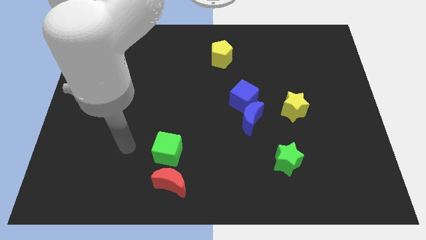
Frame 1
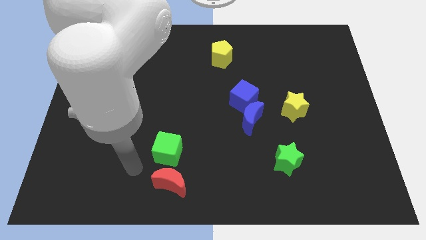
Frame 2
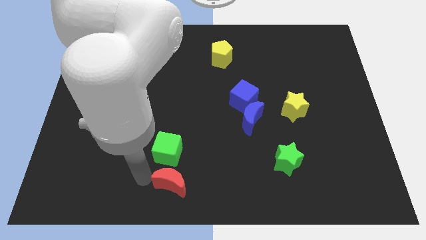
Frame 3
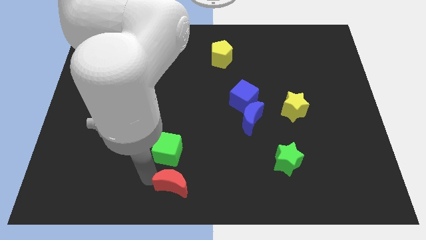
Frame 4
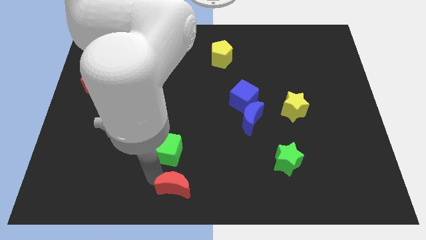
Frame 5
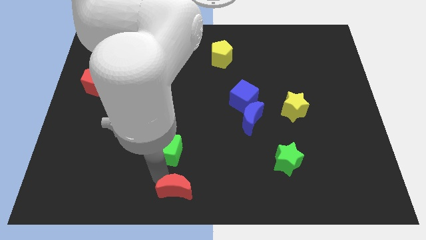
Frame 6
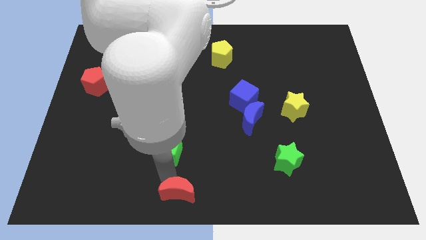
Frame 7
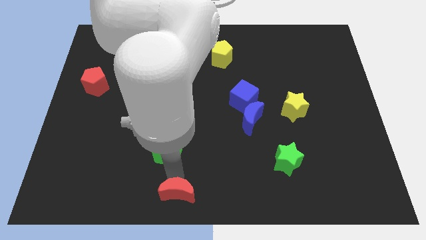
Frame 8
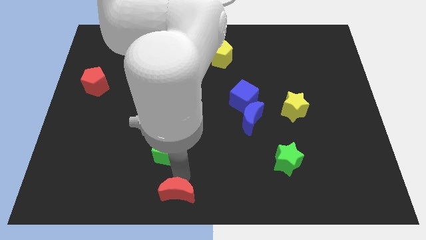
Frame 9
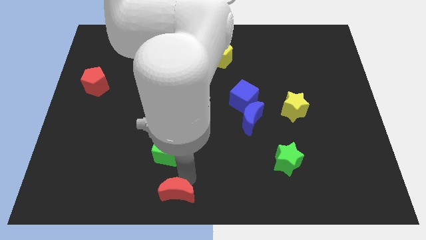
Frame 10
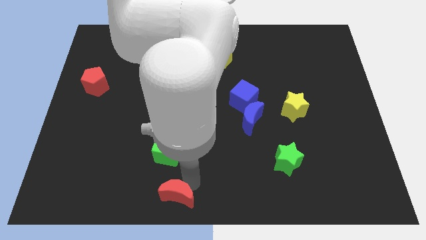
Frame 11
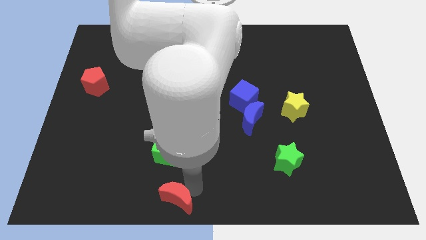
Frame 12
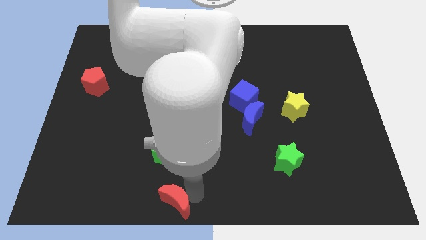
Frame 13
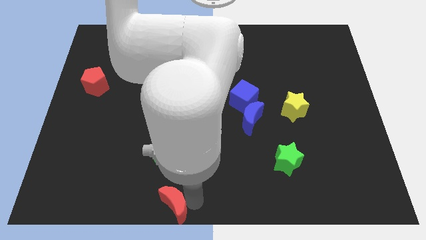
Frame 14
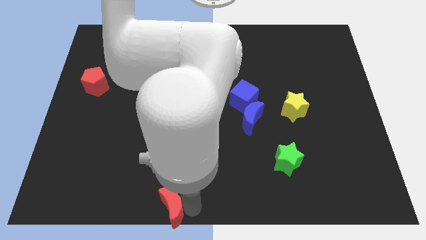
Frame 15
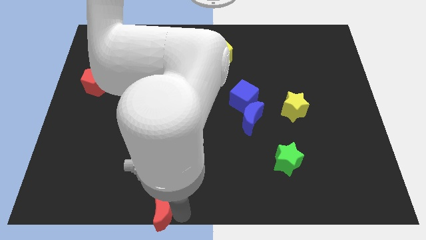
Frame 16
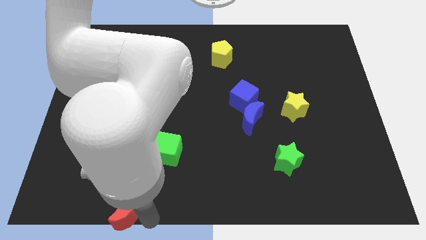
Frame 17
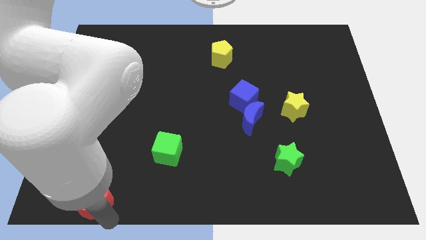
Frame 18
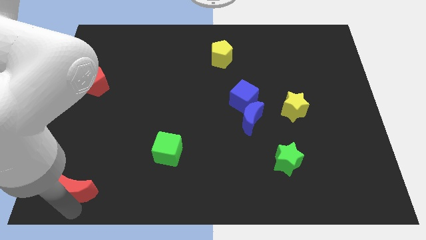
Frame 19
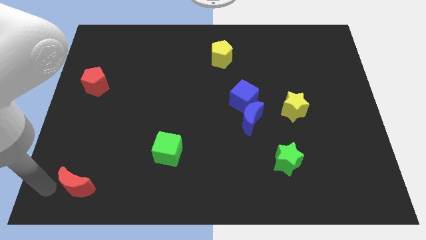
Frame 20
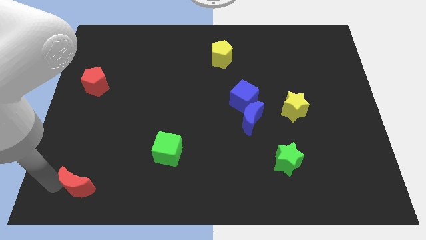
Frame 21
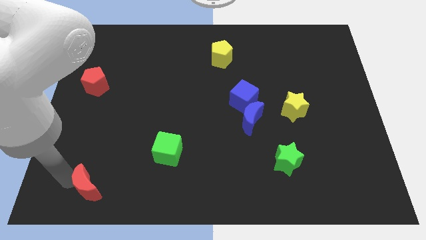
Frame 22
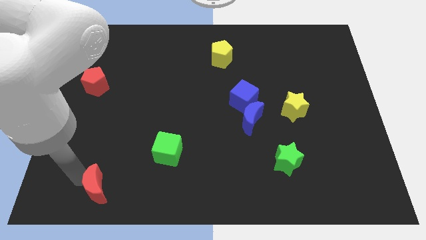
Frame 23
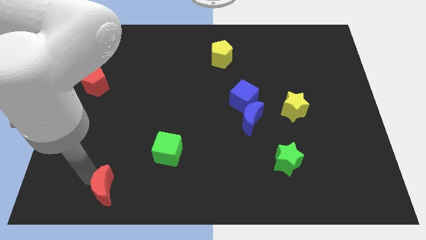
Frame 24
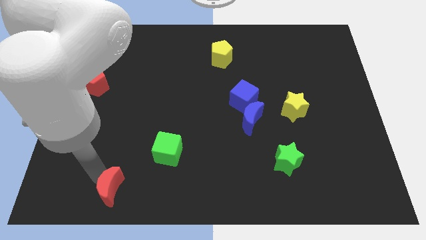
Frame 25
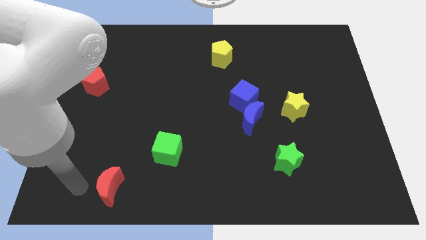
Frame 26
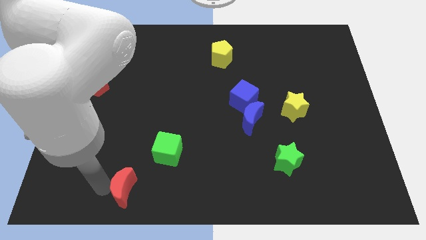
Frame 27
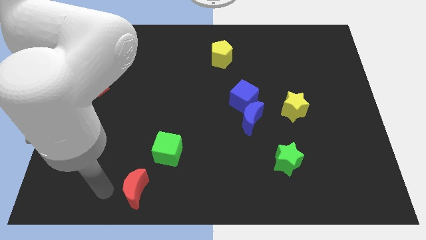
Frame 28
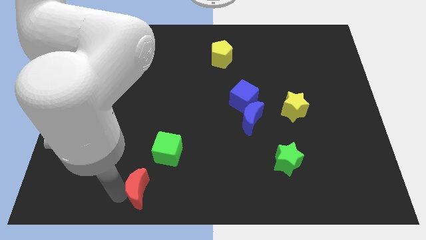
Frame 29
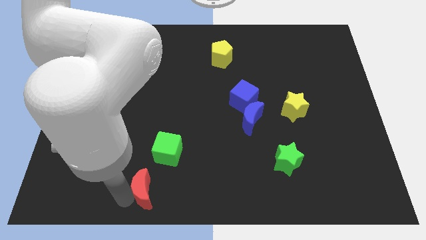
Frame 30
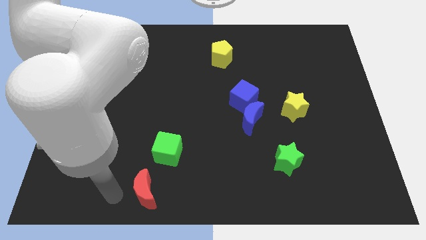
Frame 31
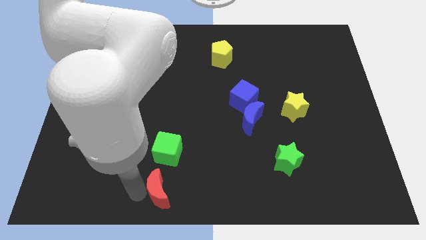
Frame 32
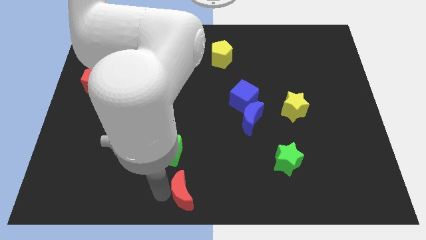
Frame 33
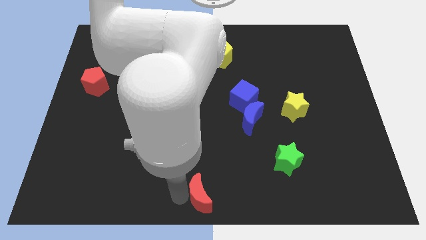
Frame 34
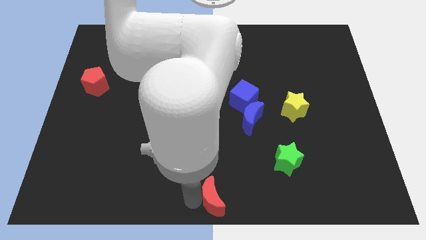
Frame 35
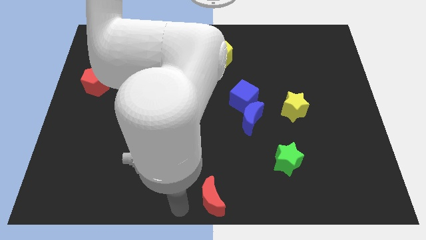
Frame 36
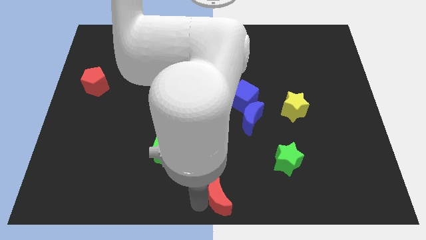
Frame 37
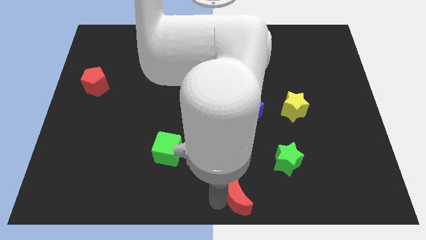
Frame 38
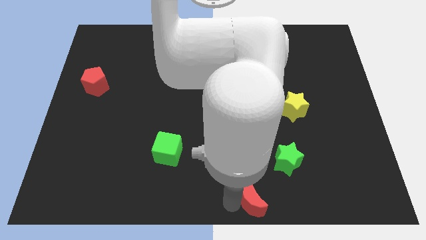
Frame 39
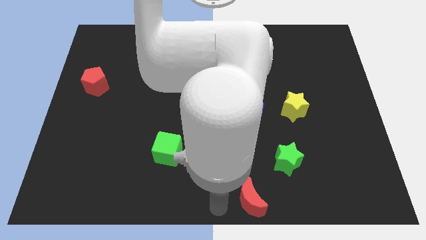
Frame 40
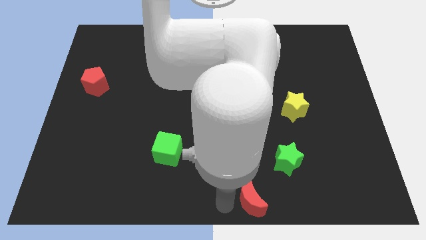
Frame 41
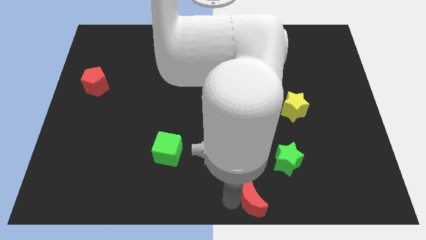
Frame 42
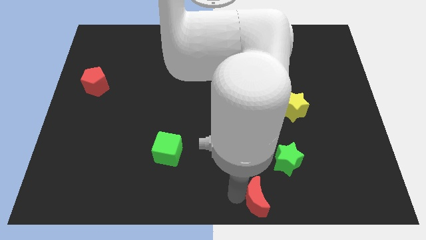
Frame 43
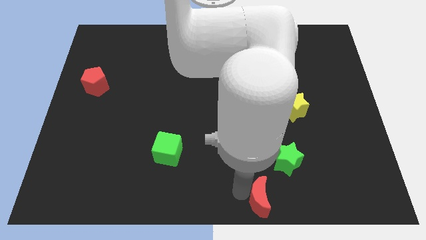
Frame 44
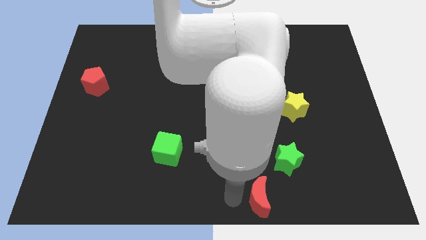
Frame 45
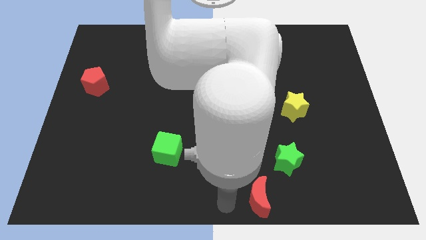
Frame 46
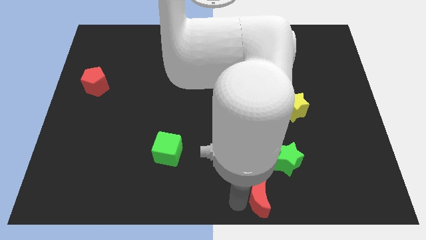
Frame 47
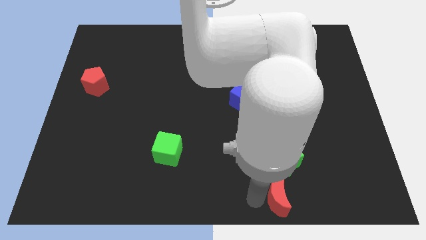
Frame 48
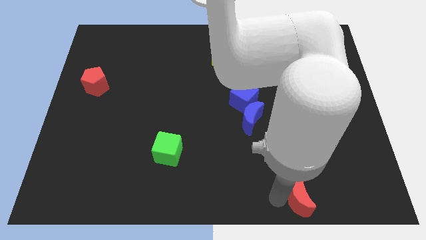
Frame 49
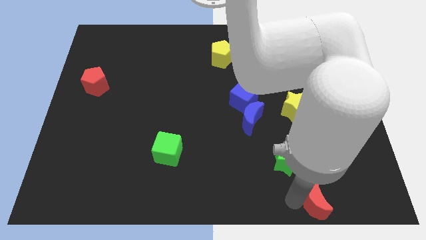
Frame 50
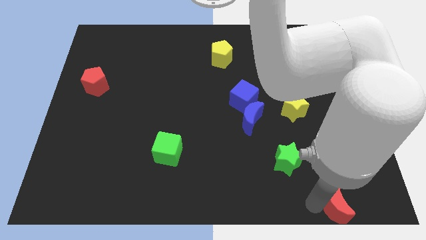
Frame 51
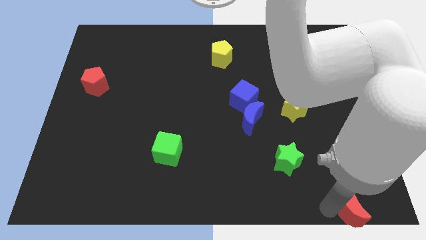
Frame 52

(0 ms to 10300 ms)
move the red moon to the bottom right corner

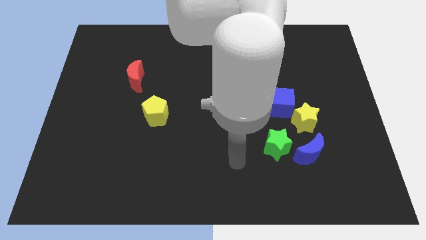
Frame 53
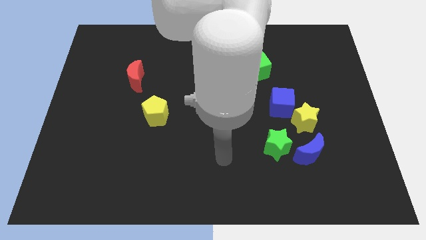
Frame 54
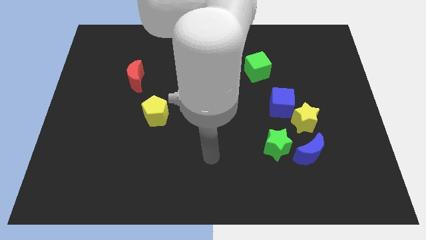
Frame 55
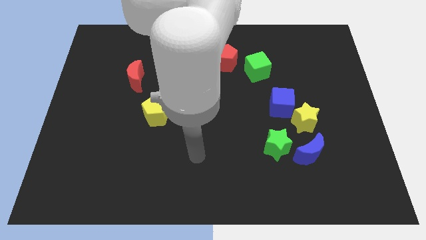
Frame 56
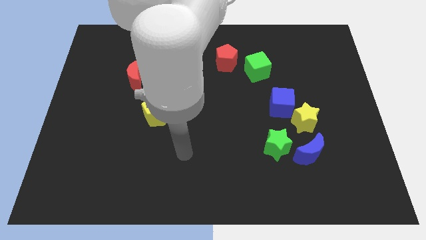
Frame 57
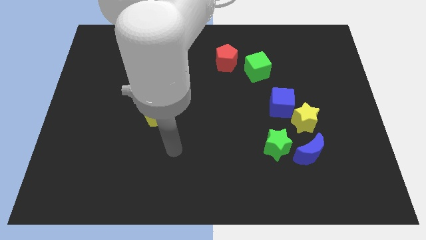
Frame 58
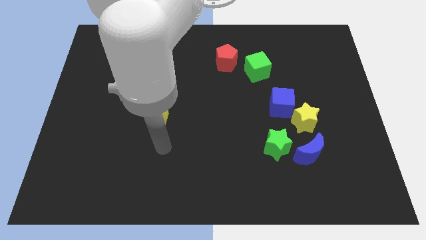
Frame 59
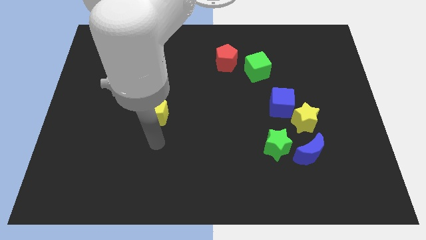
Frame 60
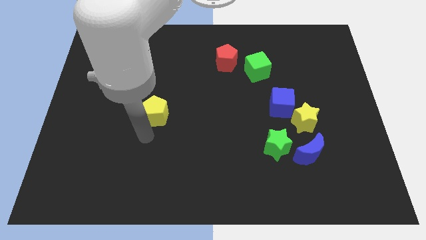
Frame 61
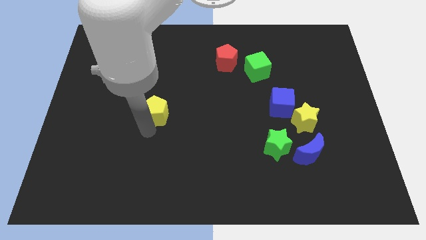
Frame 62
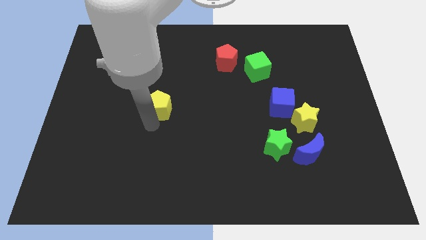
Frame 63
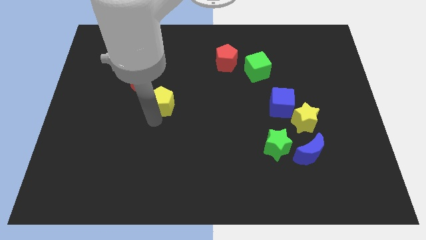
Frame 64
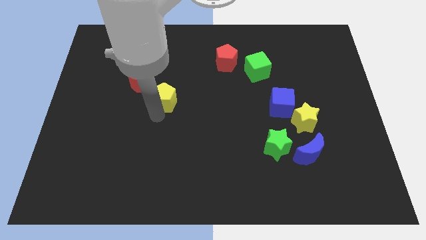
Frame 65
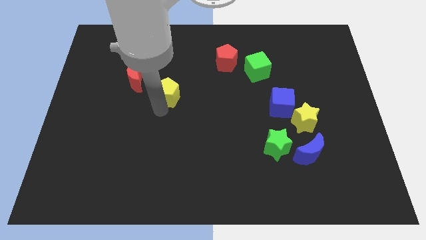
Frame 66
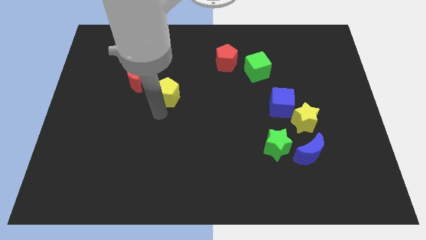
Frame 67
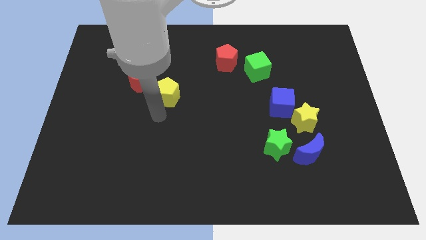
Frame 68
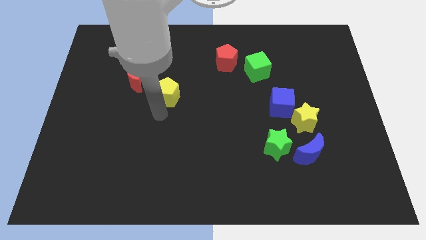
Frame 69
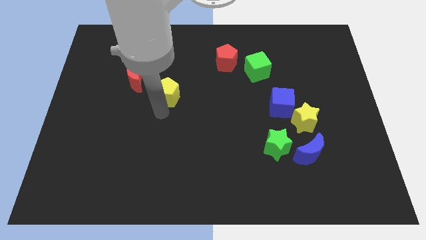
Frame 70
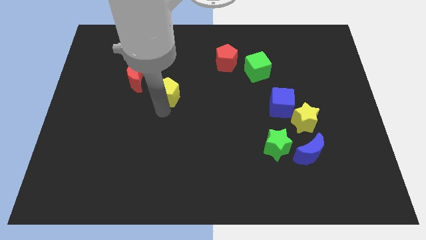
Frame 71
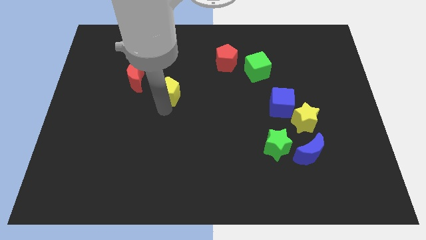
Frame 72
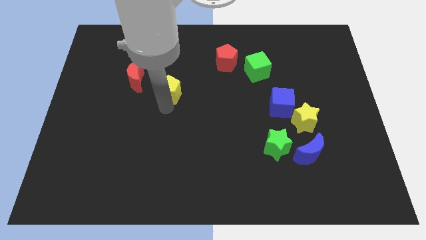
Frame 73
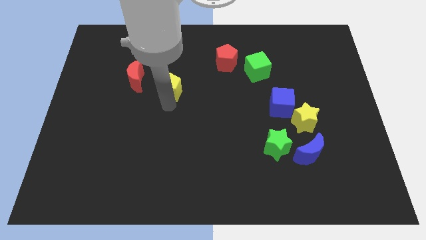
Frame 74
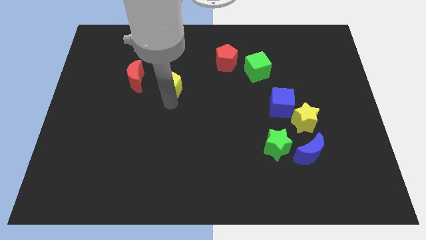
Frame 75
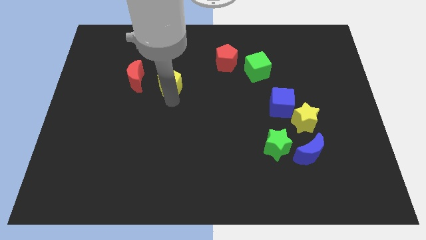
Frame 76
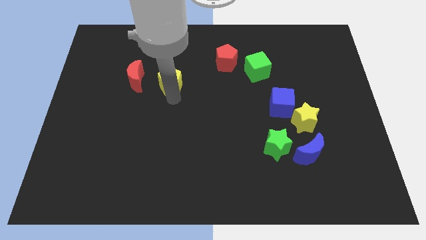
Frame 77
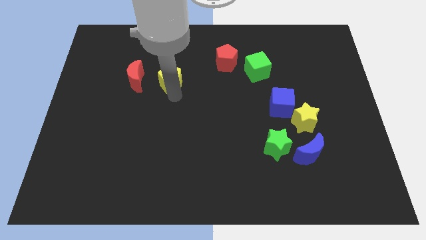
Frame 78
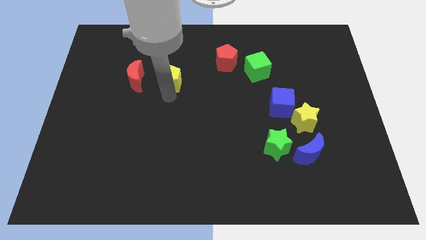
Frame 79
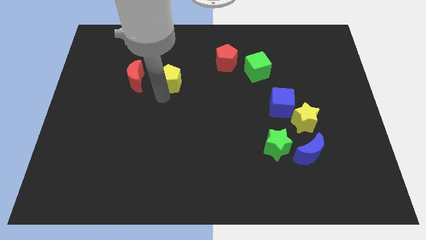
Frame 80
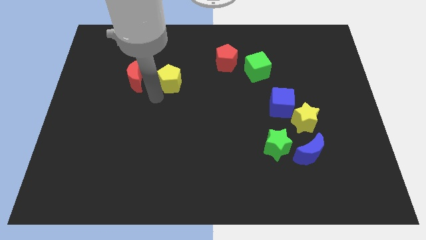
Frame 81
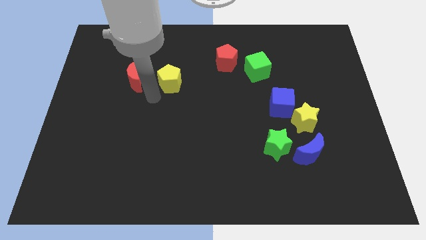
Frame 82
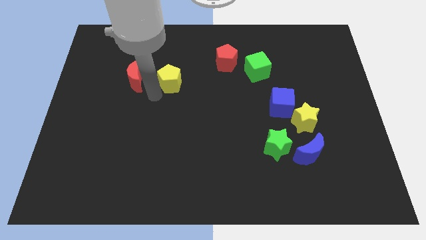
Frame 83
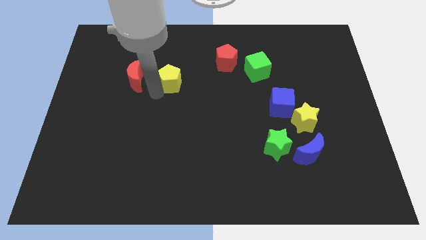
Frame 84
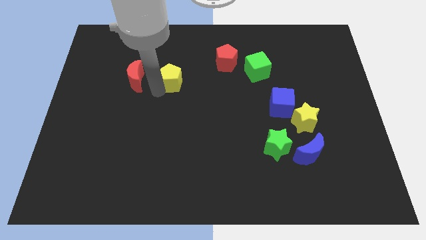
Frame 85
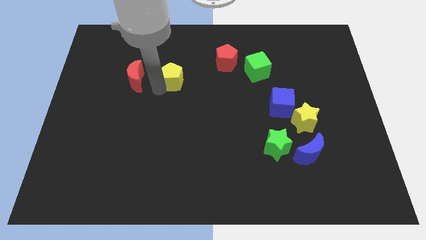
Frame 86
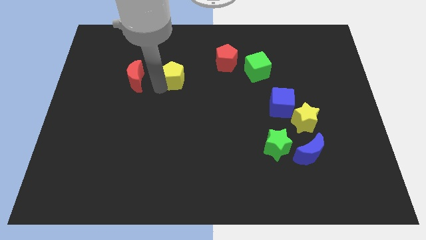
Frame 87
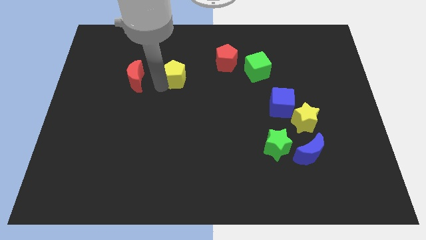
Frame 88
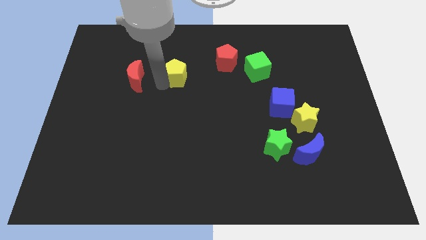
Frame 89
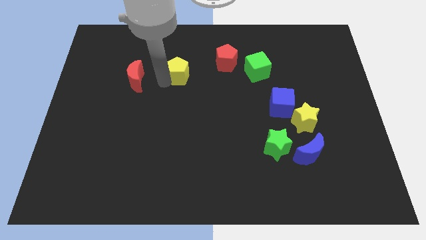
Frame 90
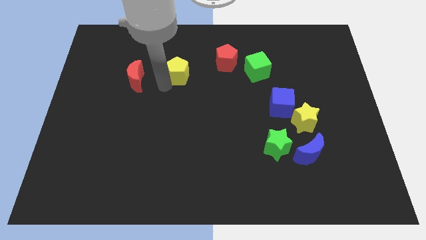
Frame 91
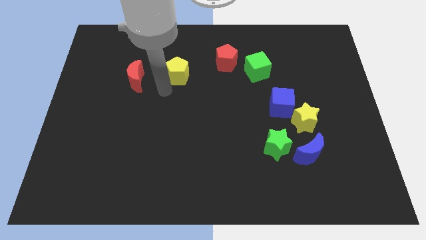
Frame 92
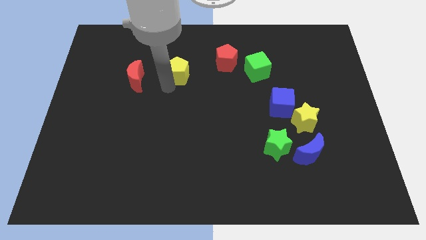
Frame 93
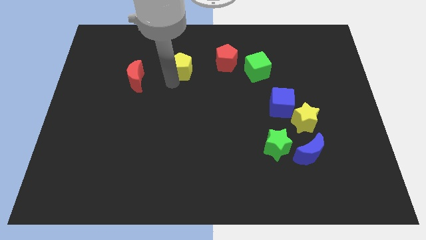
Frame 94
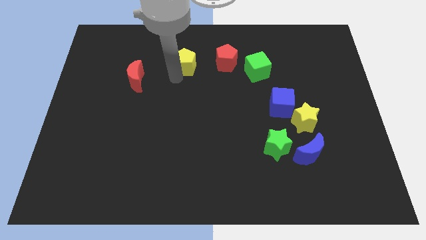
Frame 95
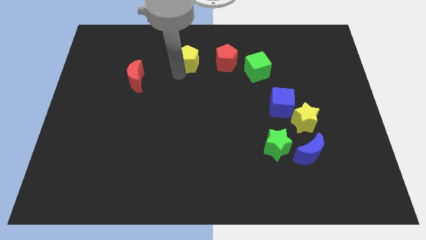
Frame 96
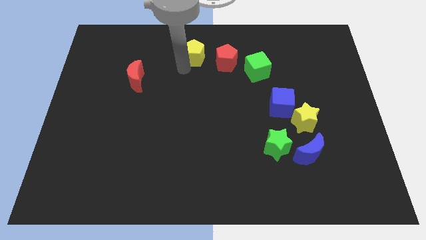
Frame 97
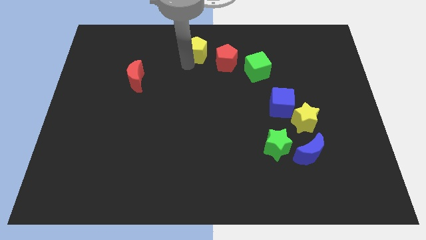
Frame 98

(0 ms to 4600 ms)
move the yellow pentagon to the top
